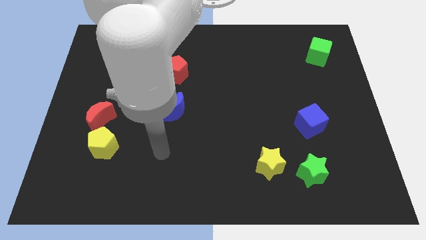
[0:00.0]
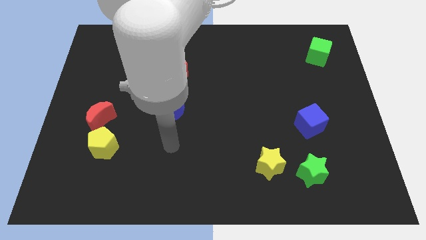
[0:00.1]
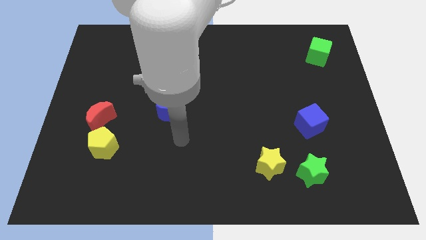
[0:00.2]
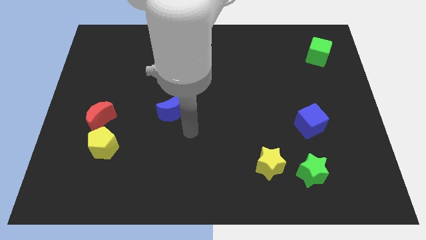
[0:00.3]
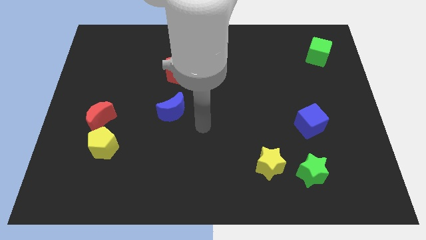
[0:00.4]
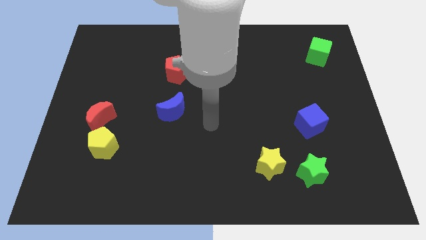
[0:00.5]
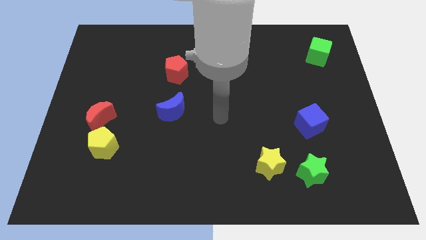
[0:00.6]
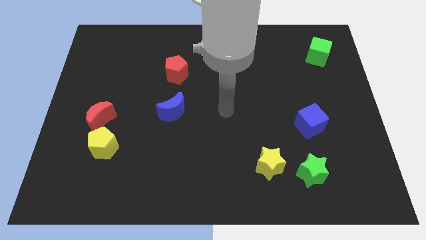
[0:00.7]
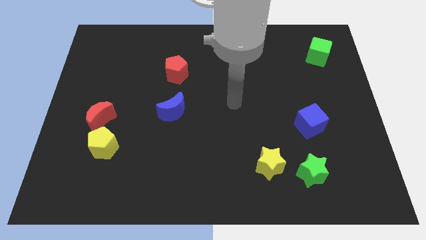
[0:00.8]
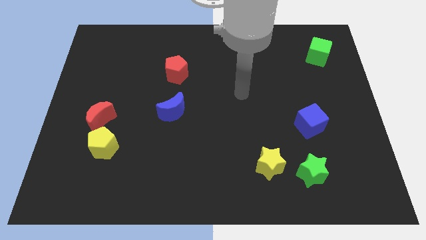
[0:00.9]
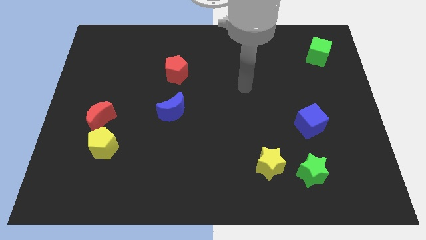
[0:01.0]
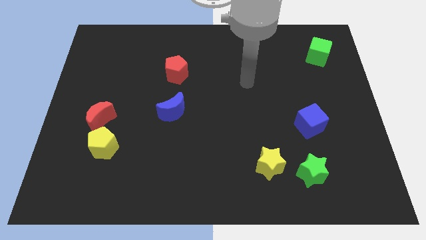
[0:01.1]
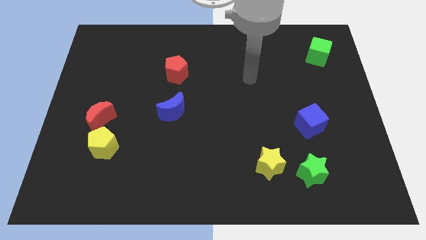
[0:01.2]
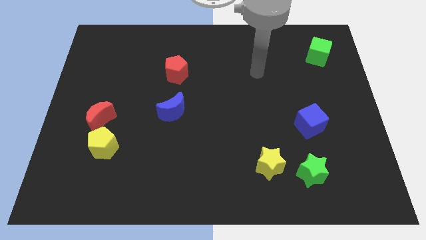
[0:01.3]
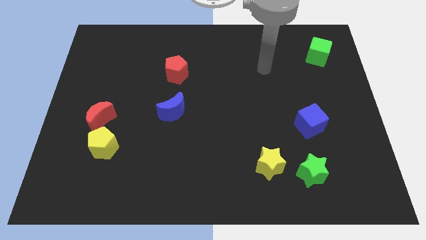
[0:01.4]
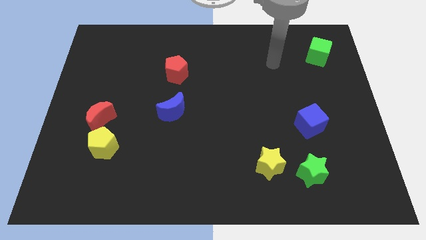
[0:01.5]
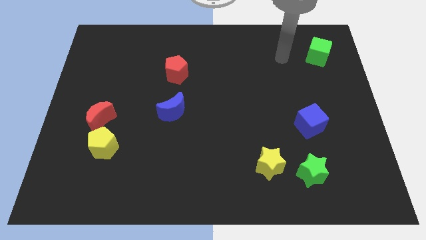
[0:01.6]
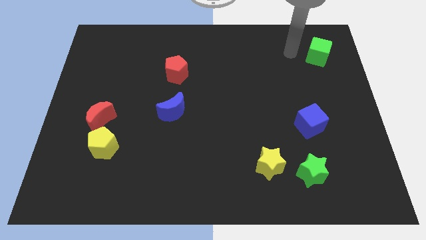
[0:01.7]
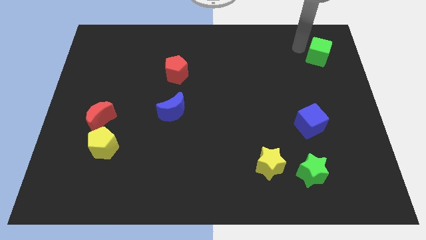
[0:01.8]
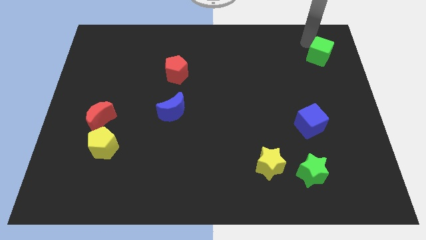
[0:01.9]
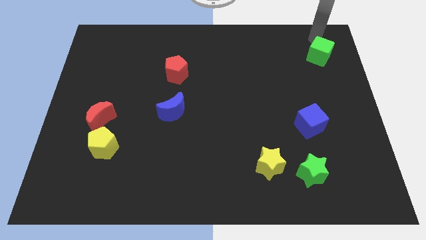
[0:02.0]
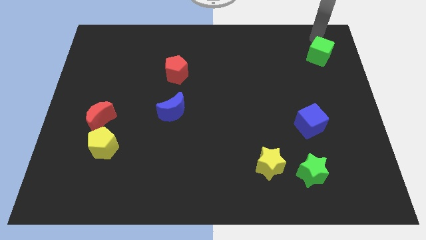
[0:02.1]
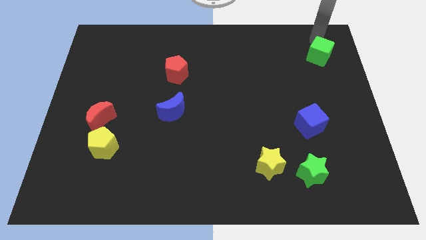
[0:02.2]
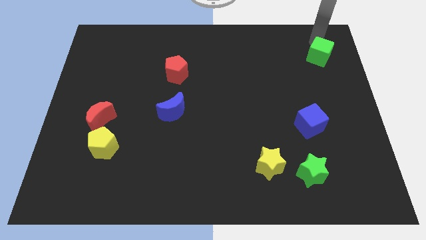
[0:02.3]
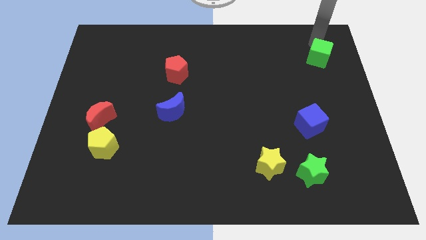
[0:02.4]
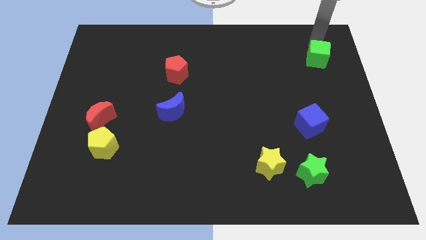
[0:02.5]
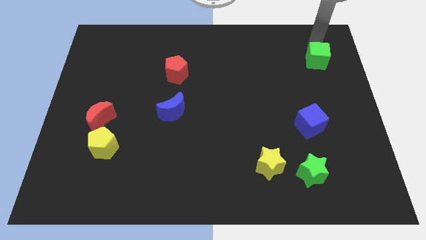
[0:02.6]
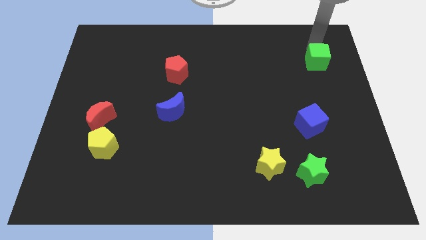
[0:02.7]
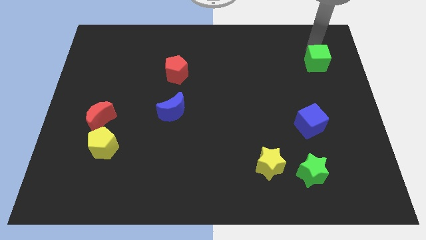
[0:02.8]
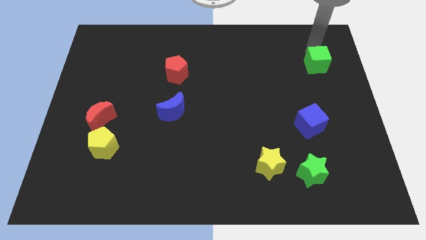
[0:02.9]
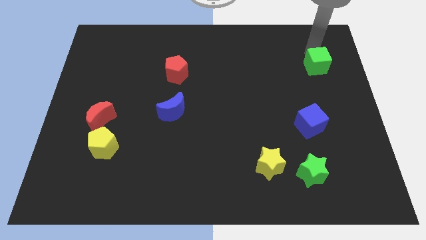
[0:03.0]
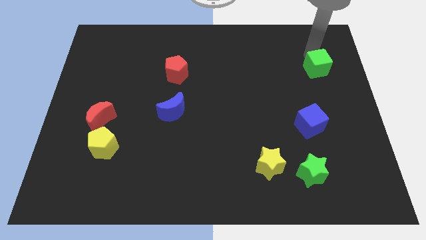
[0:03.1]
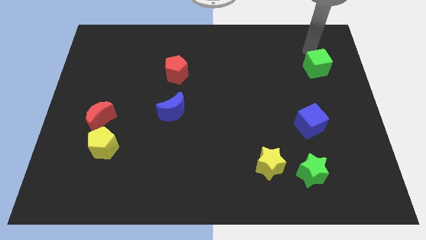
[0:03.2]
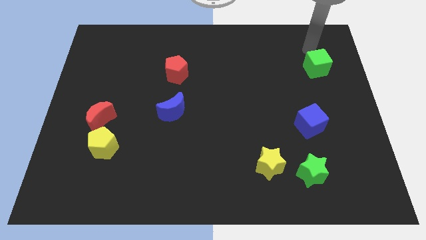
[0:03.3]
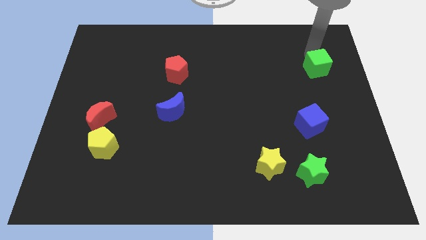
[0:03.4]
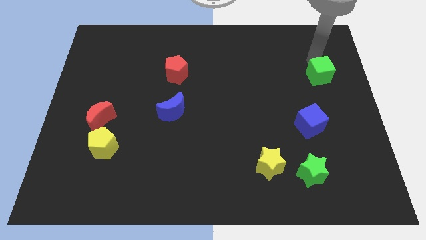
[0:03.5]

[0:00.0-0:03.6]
push the green cube downwards a little bit

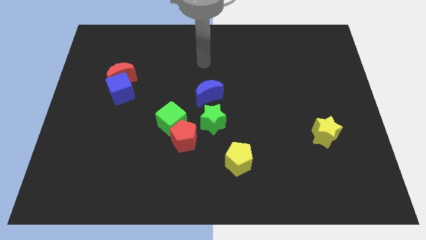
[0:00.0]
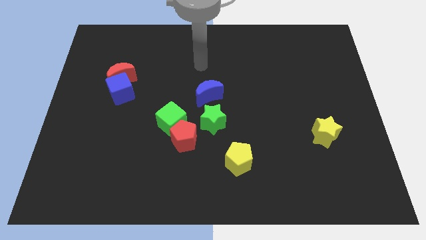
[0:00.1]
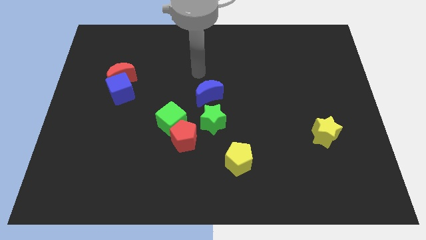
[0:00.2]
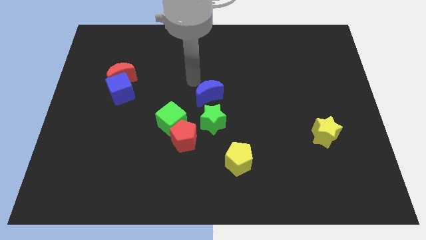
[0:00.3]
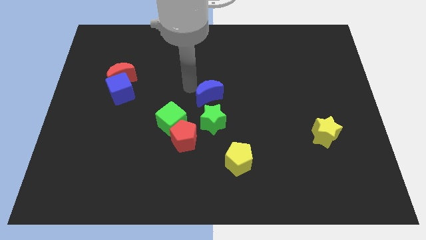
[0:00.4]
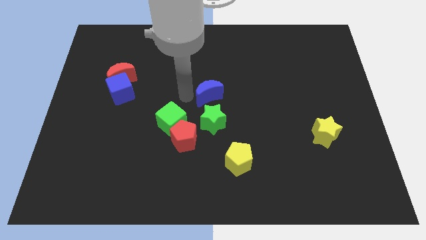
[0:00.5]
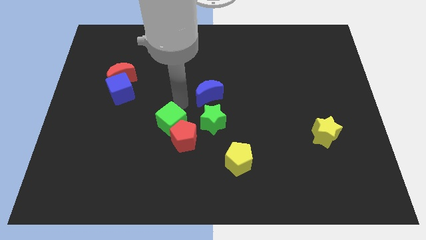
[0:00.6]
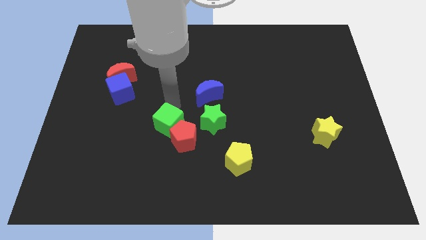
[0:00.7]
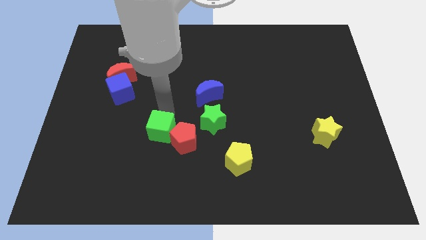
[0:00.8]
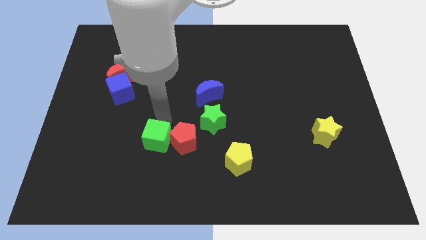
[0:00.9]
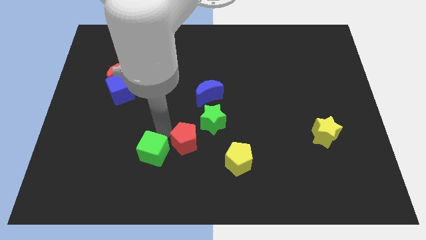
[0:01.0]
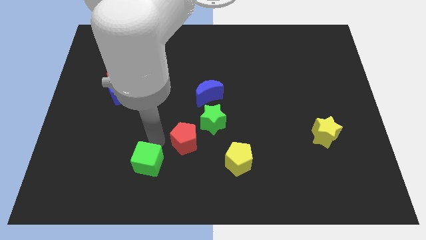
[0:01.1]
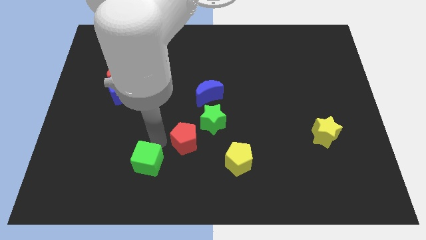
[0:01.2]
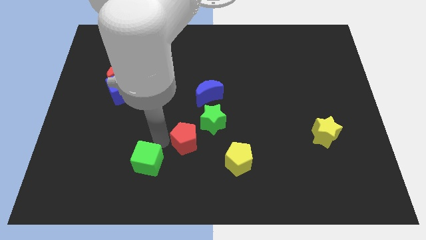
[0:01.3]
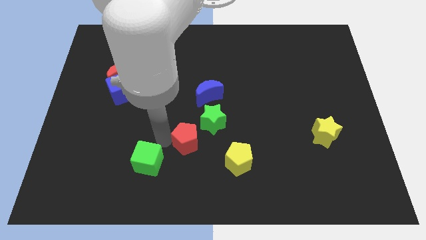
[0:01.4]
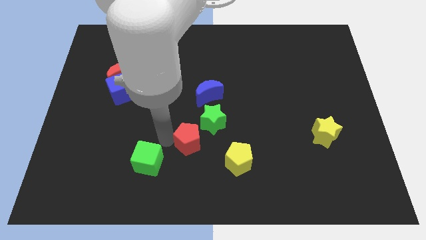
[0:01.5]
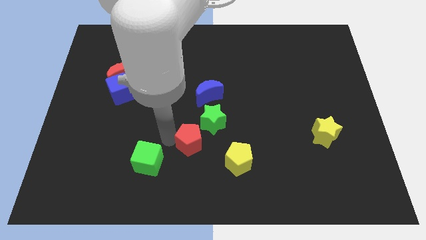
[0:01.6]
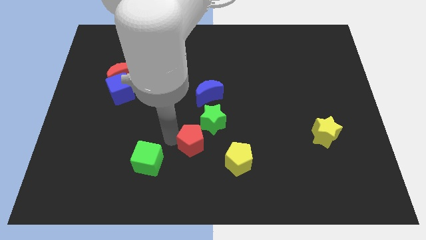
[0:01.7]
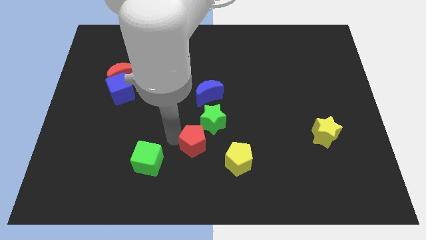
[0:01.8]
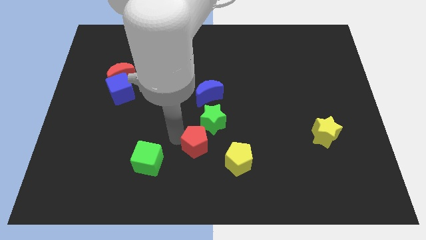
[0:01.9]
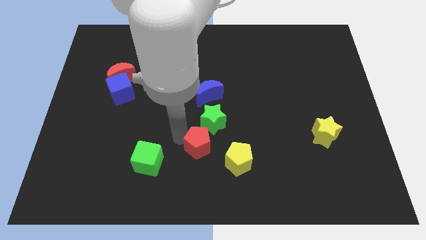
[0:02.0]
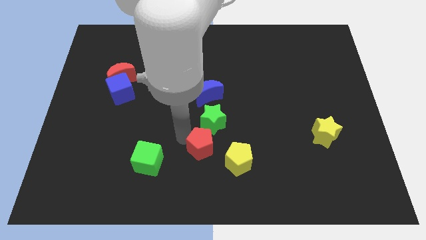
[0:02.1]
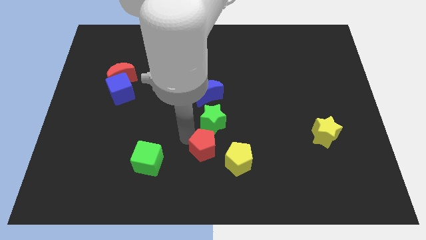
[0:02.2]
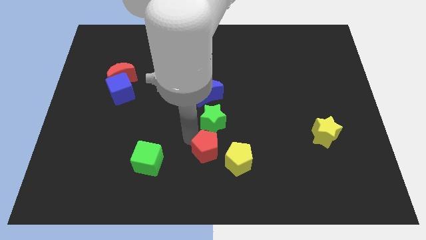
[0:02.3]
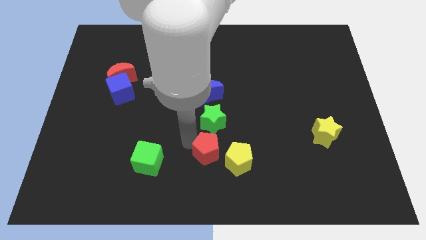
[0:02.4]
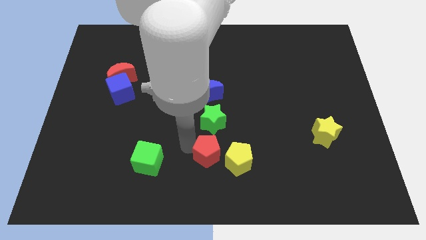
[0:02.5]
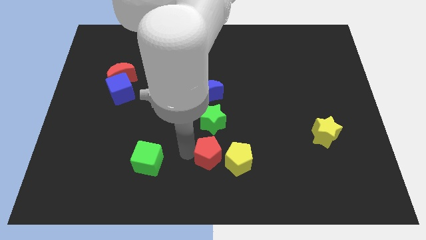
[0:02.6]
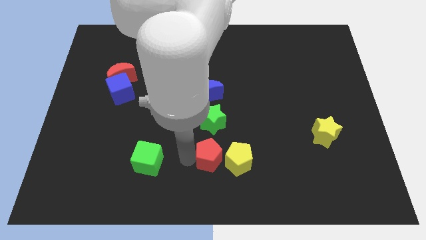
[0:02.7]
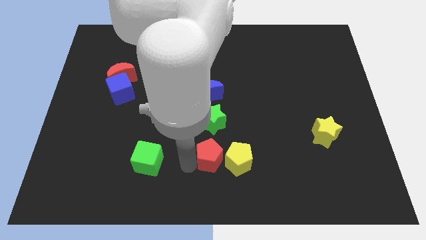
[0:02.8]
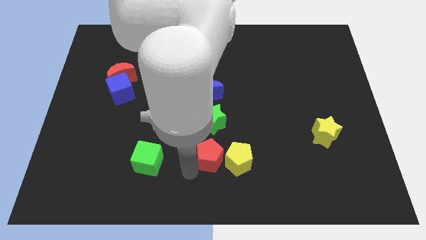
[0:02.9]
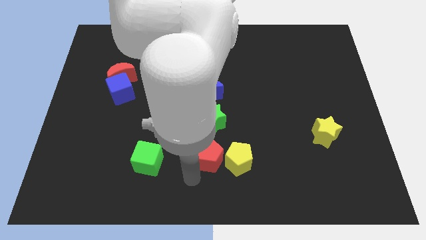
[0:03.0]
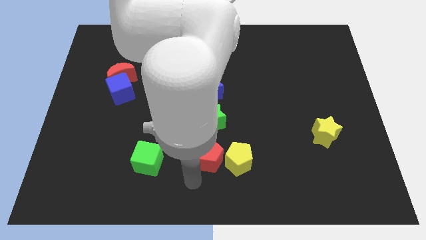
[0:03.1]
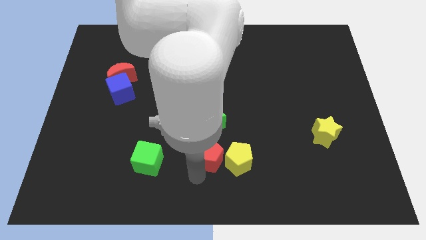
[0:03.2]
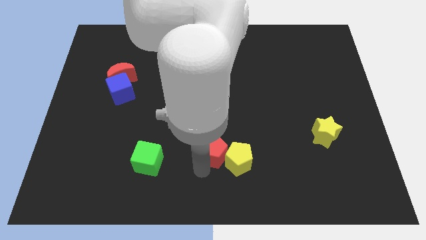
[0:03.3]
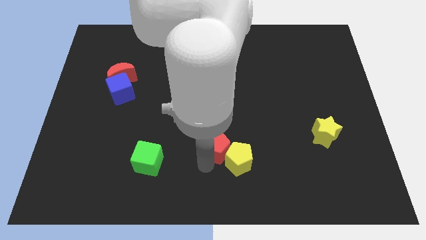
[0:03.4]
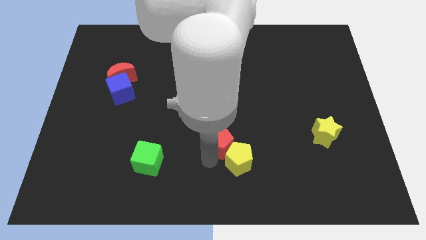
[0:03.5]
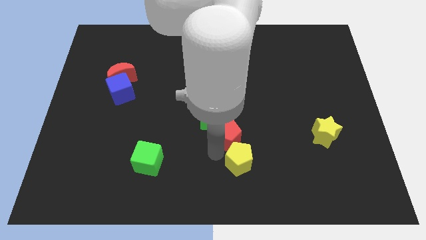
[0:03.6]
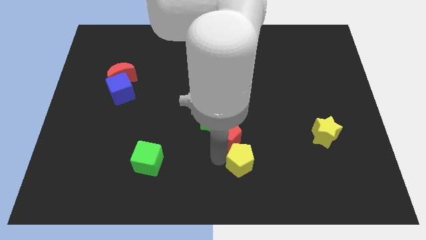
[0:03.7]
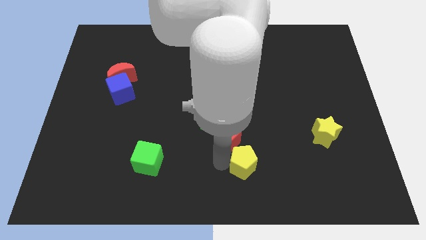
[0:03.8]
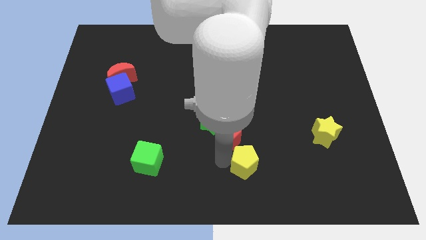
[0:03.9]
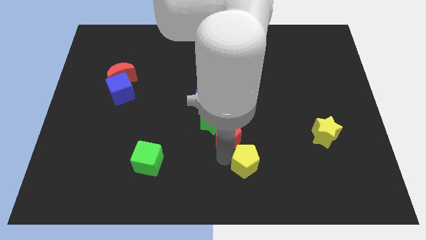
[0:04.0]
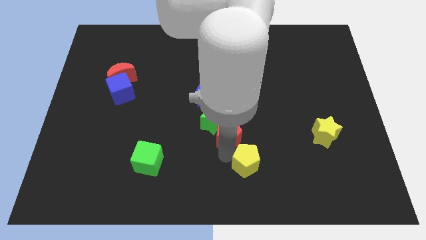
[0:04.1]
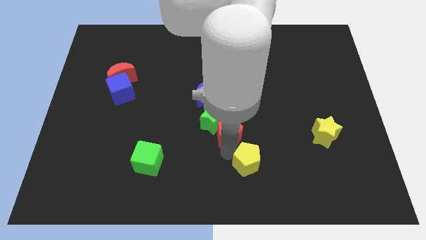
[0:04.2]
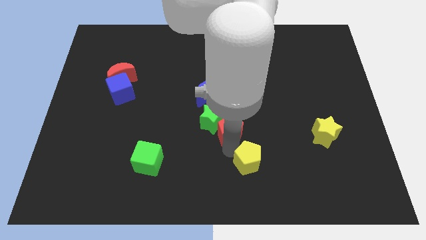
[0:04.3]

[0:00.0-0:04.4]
slightly move the red pentagon upwards and right

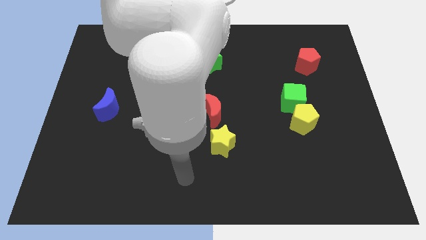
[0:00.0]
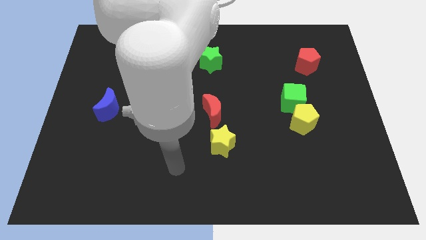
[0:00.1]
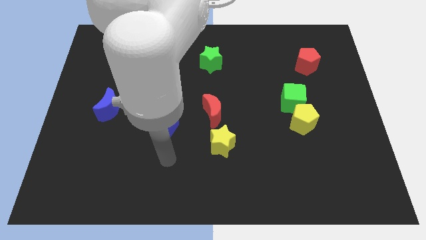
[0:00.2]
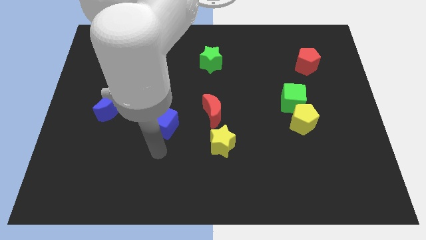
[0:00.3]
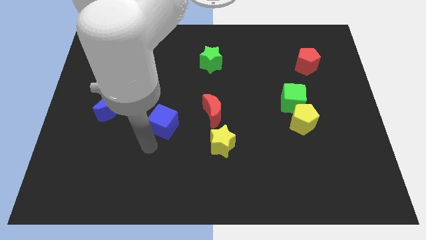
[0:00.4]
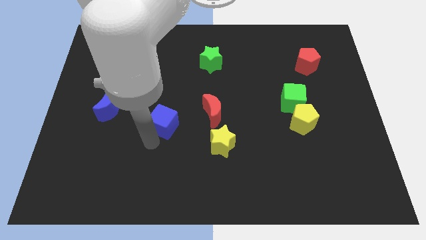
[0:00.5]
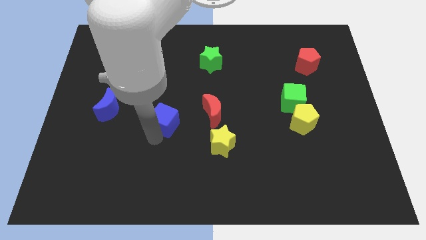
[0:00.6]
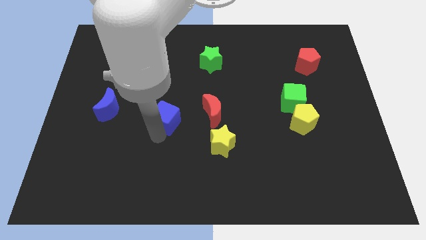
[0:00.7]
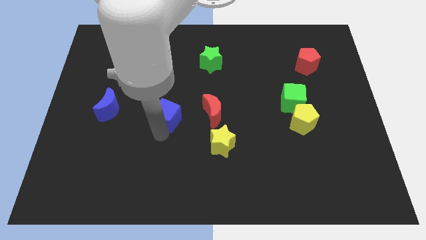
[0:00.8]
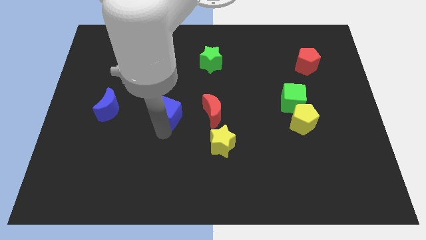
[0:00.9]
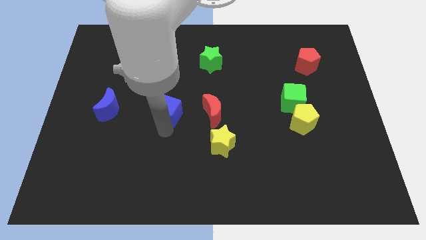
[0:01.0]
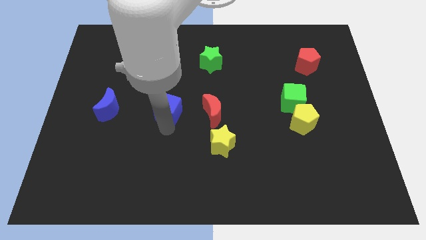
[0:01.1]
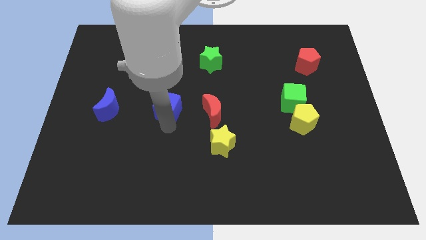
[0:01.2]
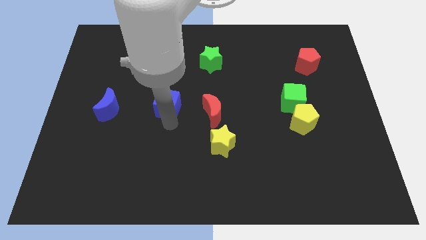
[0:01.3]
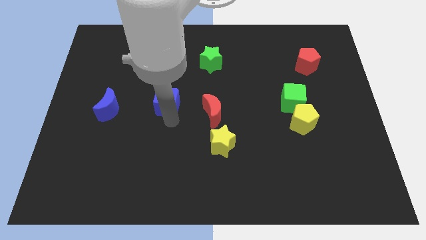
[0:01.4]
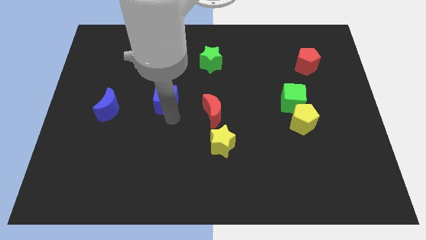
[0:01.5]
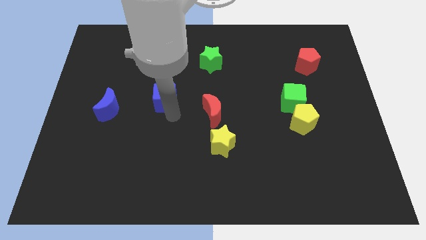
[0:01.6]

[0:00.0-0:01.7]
slide the blue cube up somewhat
